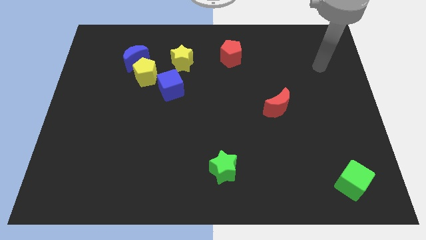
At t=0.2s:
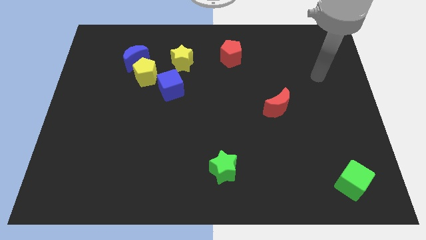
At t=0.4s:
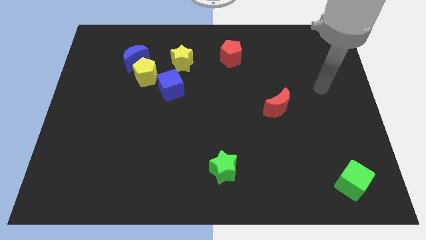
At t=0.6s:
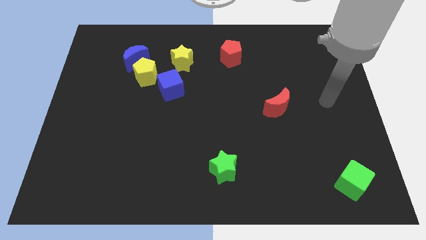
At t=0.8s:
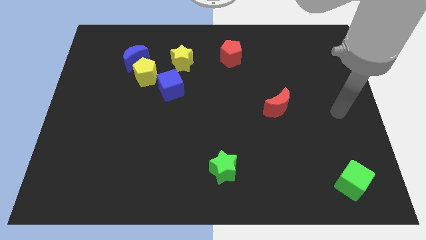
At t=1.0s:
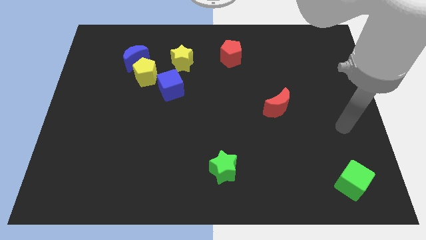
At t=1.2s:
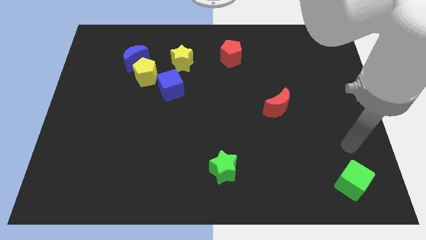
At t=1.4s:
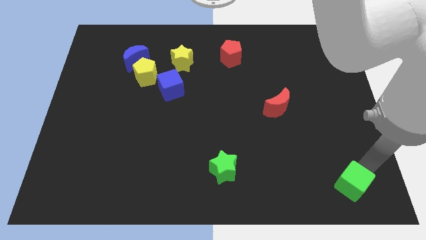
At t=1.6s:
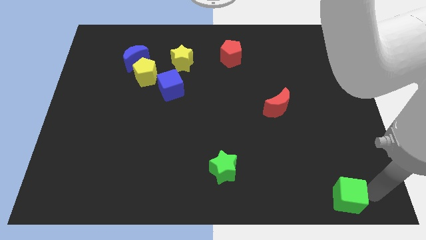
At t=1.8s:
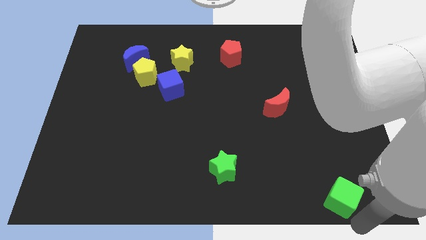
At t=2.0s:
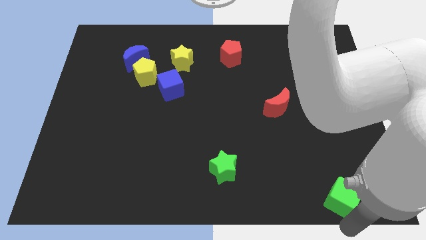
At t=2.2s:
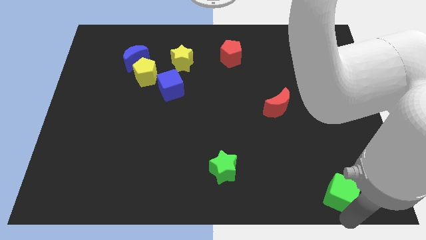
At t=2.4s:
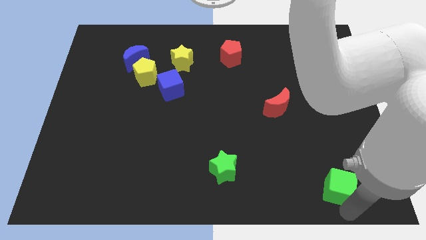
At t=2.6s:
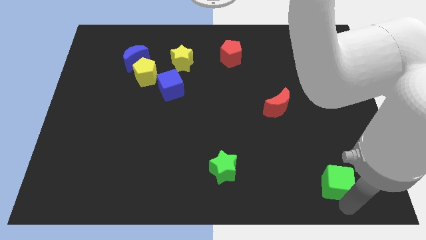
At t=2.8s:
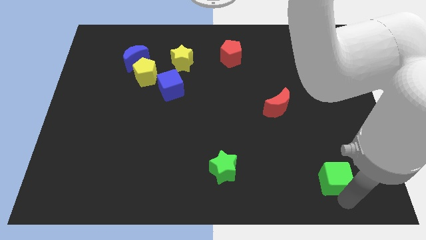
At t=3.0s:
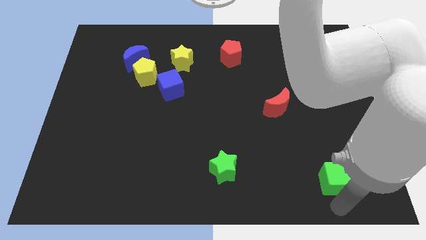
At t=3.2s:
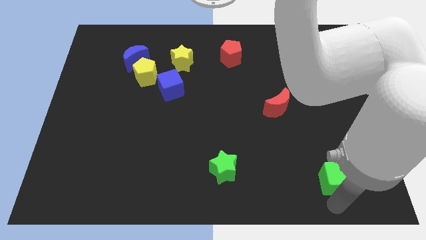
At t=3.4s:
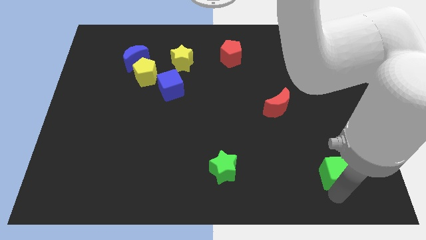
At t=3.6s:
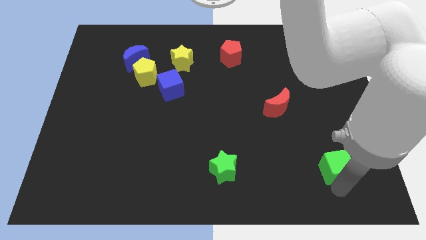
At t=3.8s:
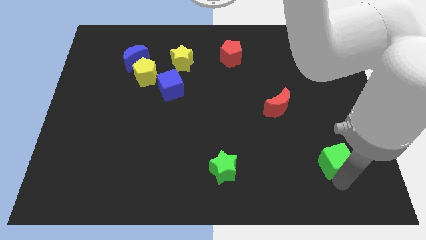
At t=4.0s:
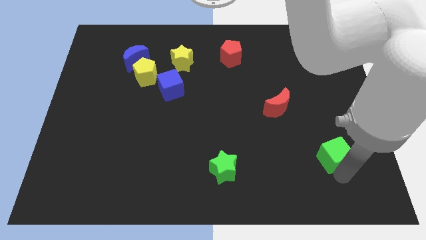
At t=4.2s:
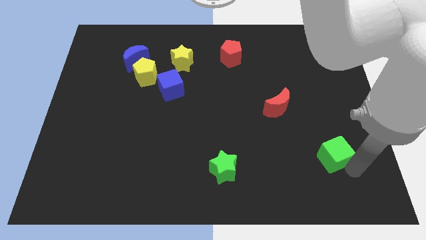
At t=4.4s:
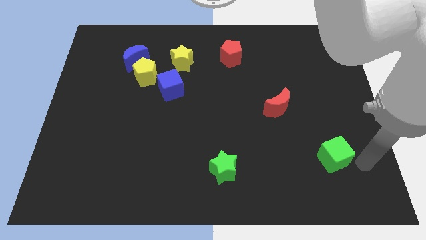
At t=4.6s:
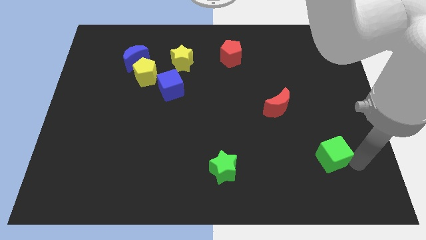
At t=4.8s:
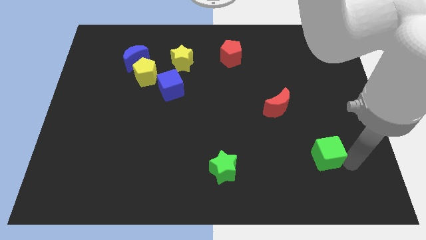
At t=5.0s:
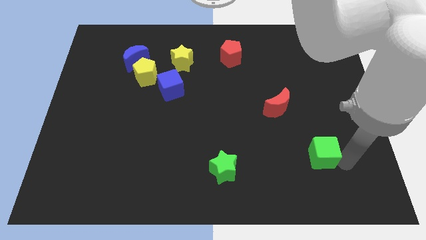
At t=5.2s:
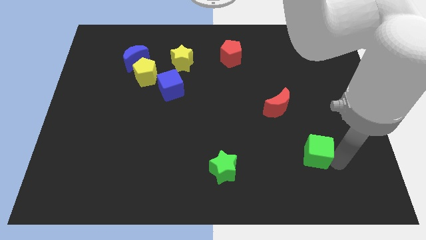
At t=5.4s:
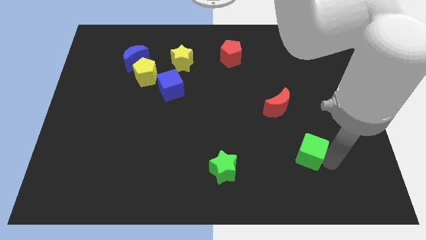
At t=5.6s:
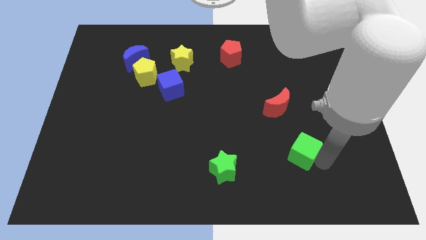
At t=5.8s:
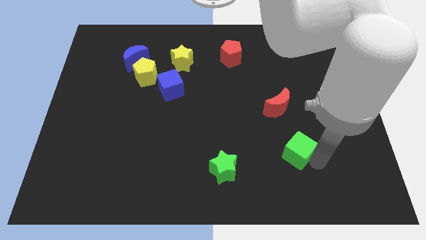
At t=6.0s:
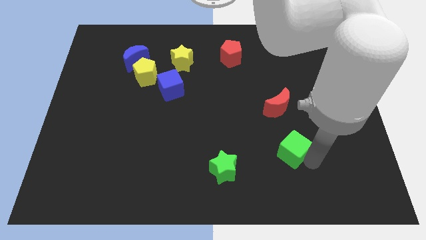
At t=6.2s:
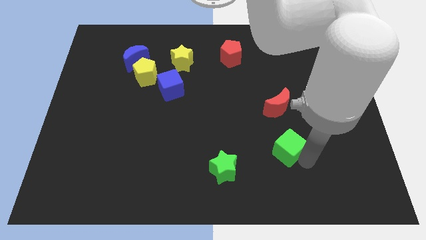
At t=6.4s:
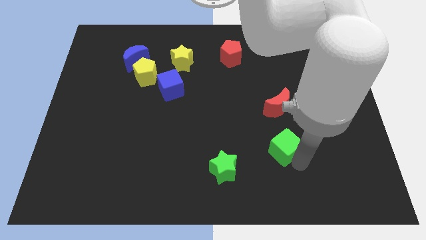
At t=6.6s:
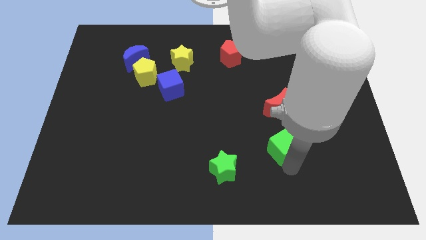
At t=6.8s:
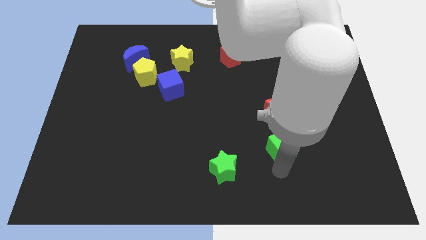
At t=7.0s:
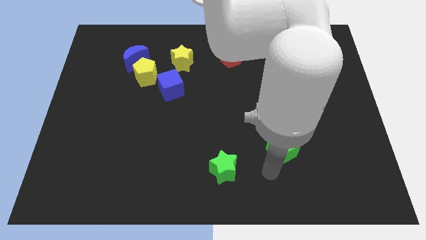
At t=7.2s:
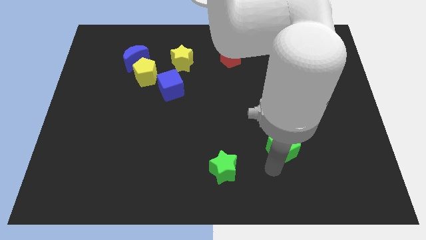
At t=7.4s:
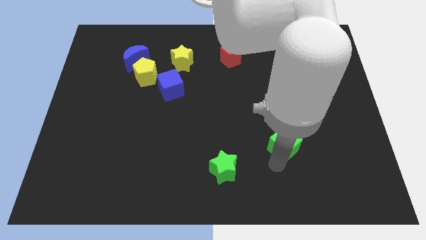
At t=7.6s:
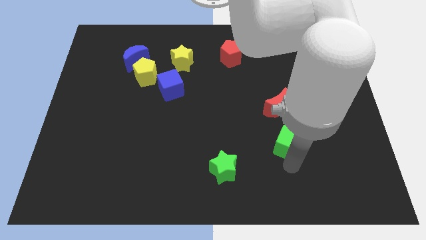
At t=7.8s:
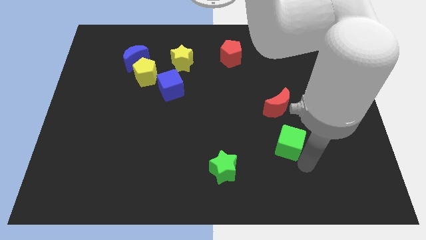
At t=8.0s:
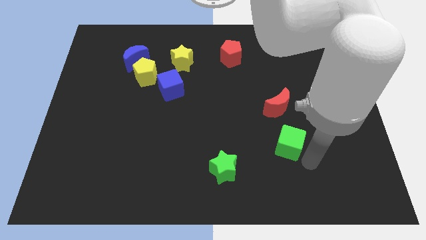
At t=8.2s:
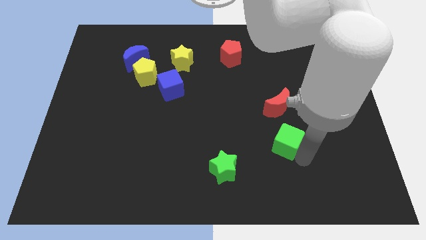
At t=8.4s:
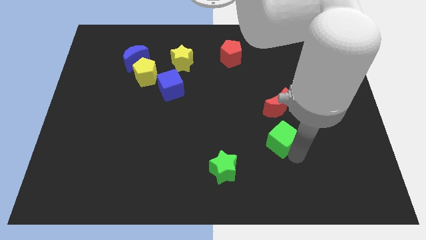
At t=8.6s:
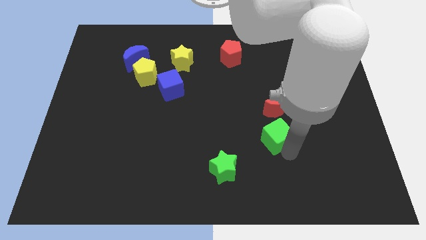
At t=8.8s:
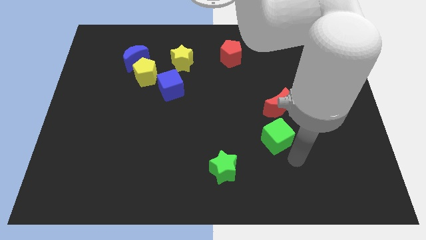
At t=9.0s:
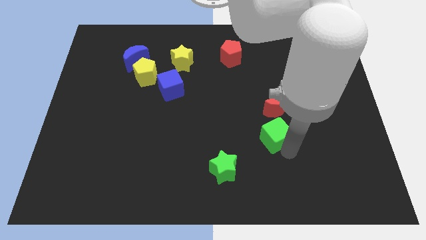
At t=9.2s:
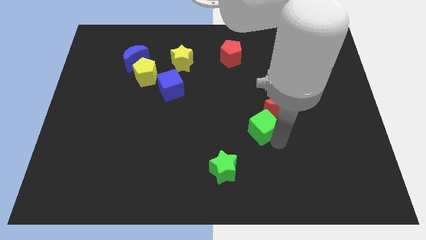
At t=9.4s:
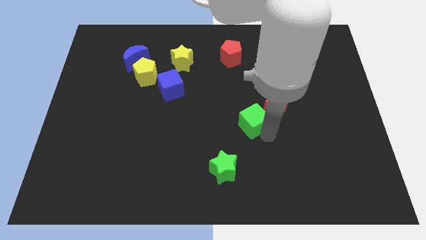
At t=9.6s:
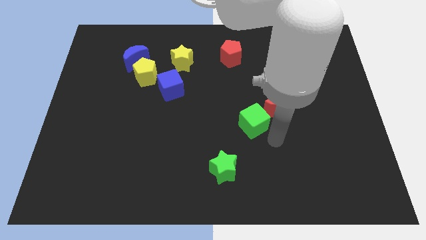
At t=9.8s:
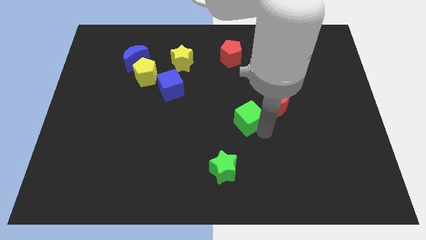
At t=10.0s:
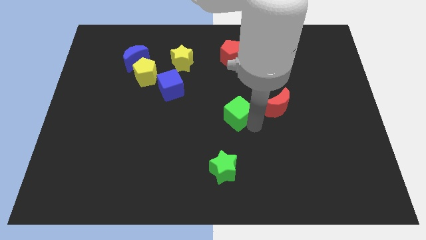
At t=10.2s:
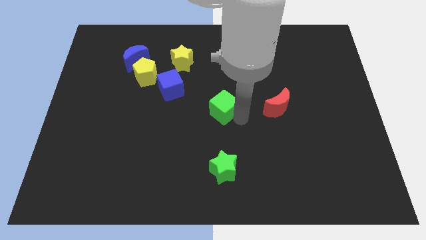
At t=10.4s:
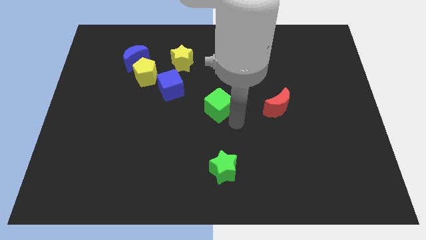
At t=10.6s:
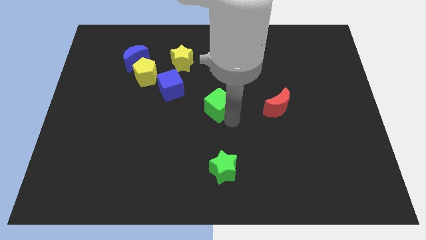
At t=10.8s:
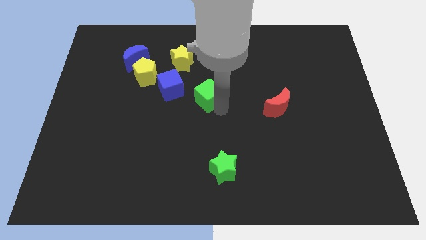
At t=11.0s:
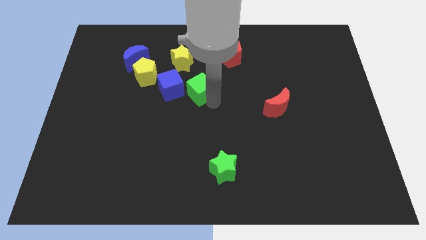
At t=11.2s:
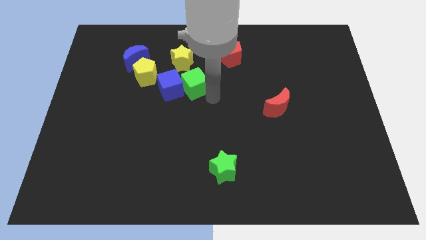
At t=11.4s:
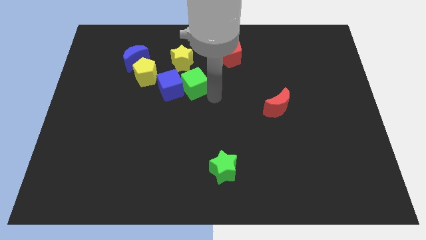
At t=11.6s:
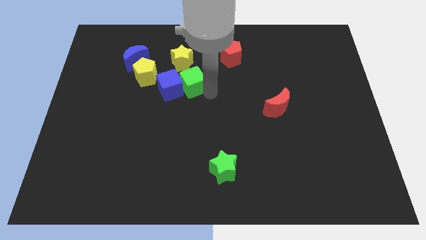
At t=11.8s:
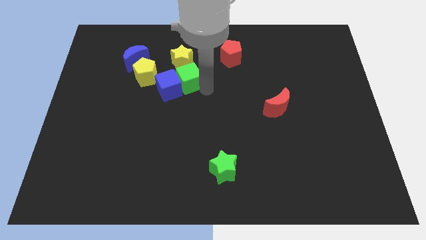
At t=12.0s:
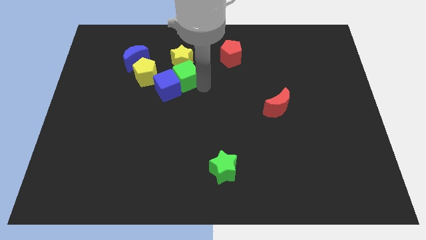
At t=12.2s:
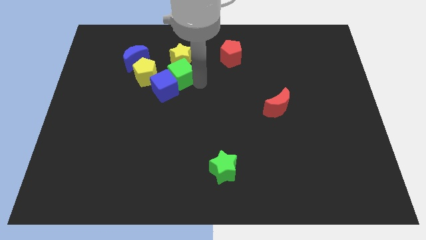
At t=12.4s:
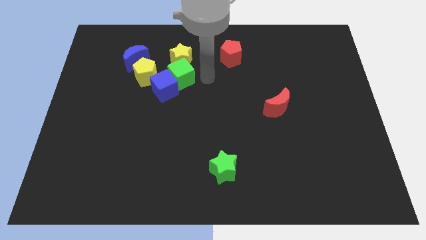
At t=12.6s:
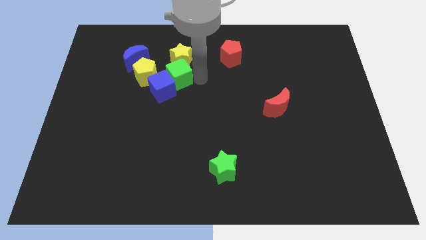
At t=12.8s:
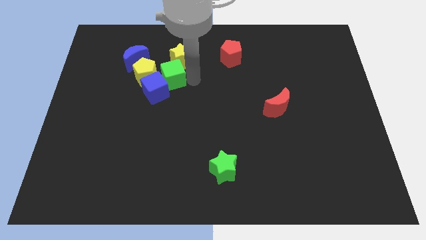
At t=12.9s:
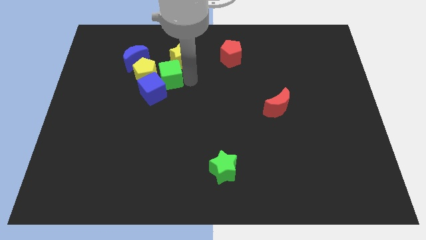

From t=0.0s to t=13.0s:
put the green cube to the yellow pentagon

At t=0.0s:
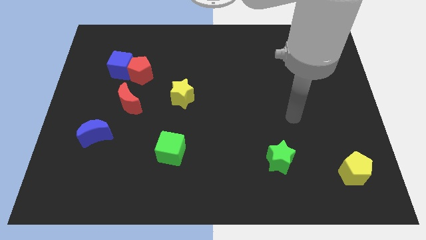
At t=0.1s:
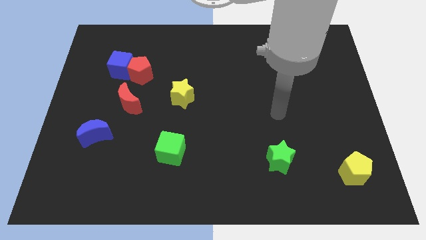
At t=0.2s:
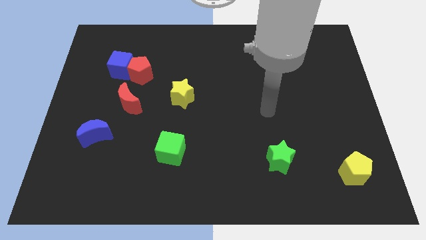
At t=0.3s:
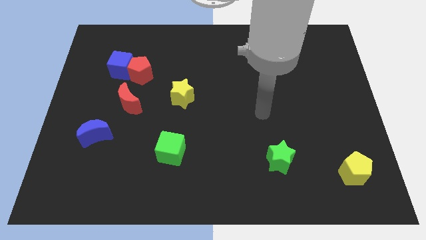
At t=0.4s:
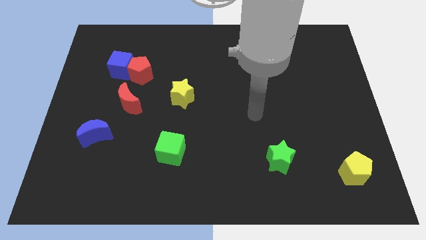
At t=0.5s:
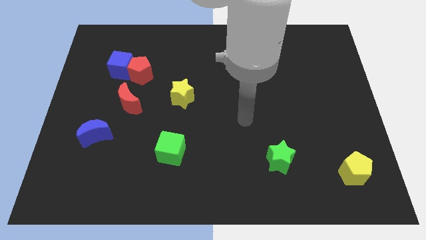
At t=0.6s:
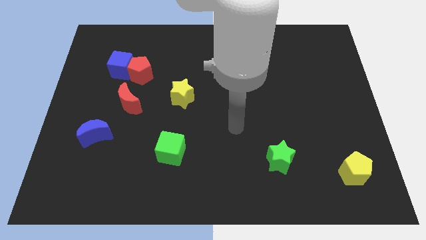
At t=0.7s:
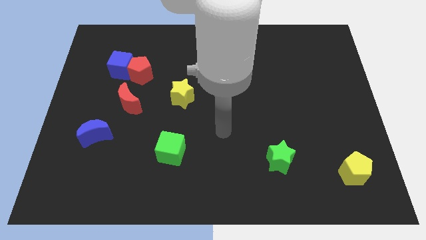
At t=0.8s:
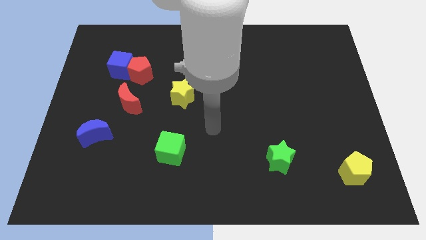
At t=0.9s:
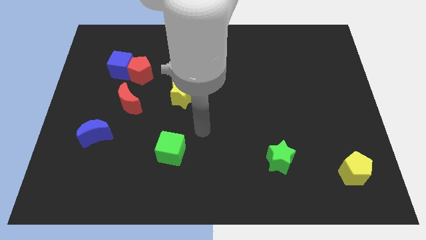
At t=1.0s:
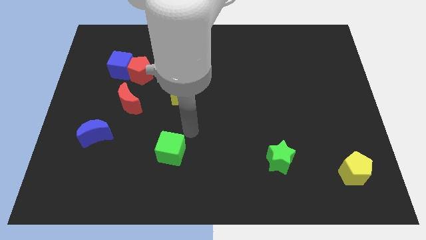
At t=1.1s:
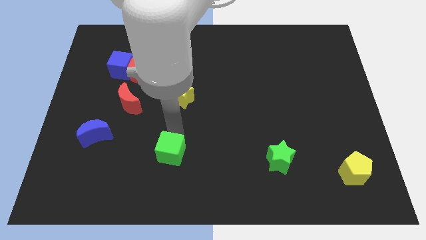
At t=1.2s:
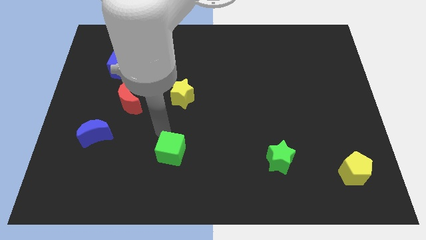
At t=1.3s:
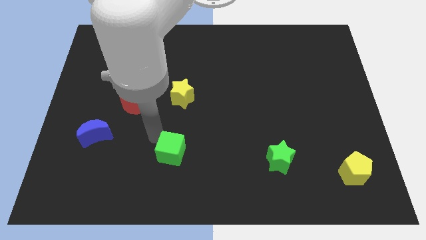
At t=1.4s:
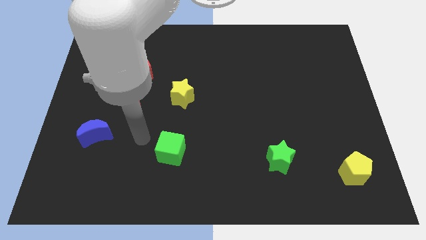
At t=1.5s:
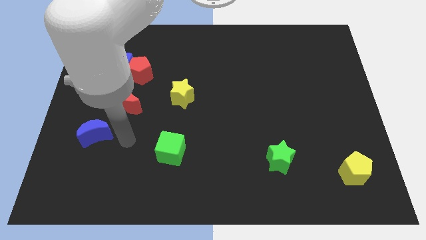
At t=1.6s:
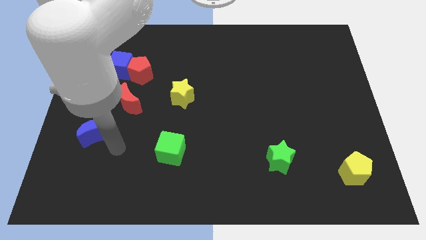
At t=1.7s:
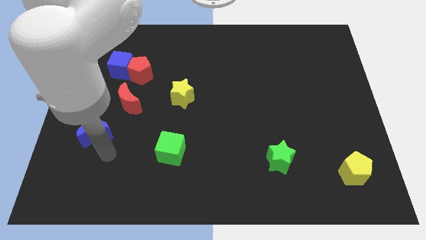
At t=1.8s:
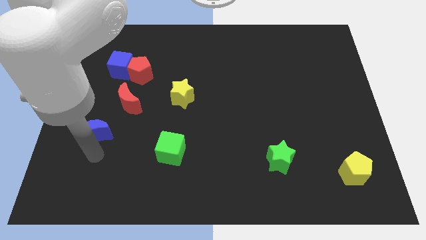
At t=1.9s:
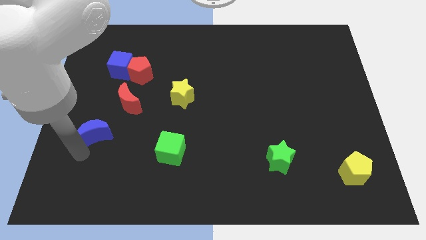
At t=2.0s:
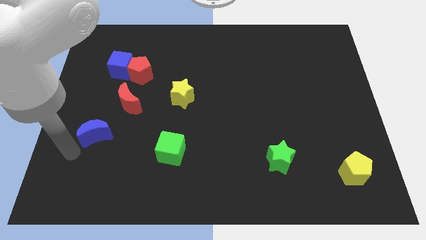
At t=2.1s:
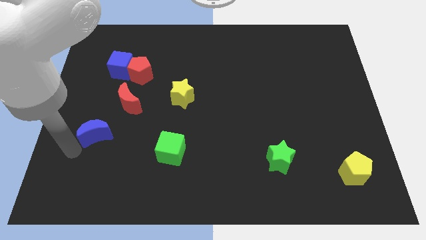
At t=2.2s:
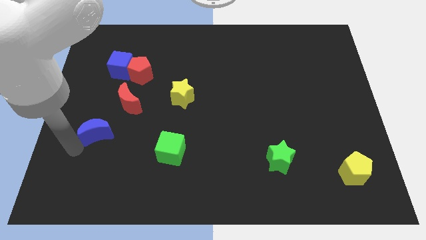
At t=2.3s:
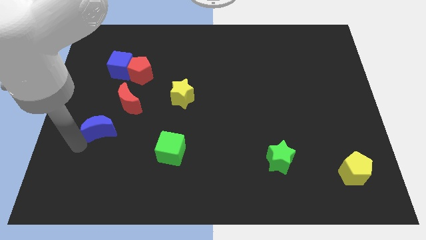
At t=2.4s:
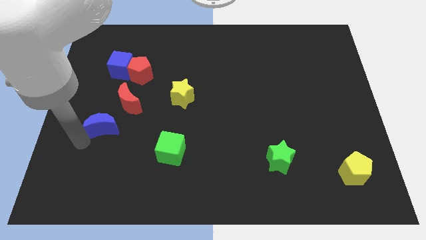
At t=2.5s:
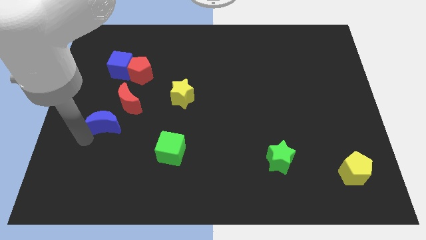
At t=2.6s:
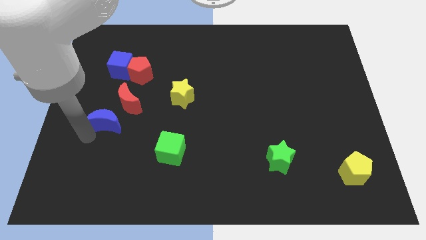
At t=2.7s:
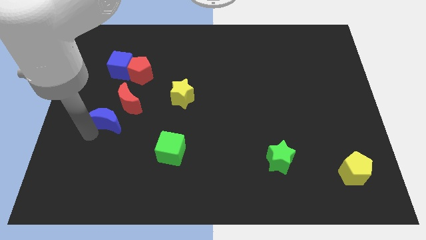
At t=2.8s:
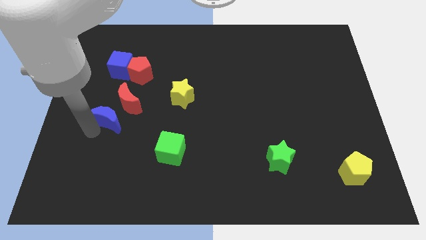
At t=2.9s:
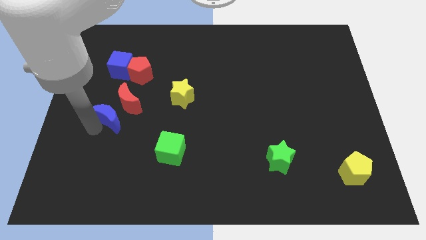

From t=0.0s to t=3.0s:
move the blue moon close to the red moon
